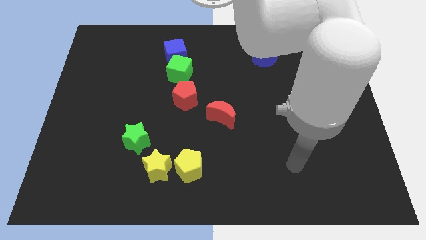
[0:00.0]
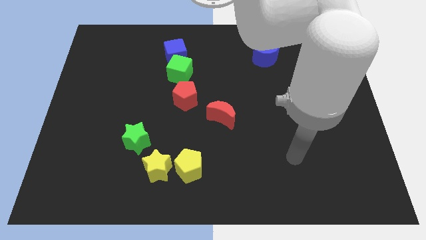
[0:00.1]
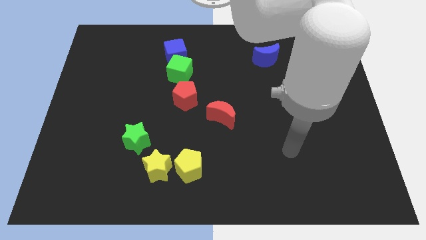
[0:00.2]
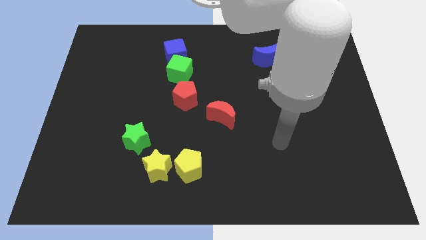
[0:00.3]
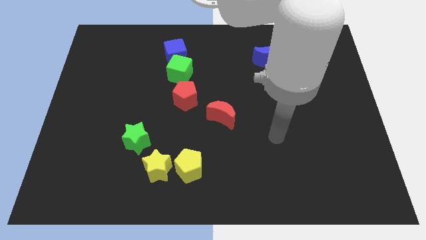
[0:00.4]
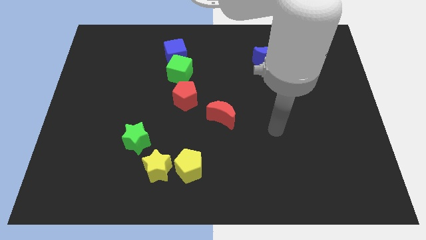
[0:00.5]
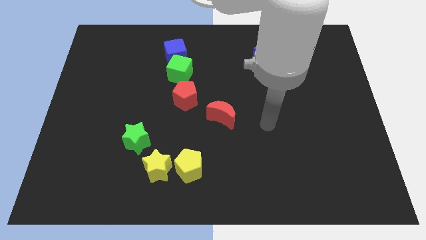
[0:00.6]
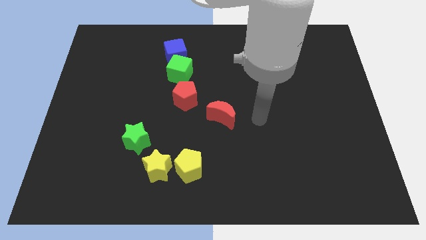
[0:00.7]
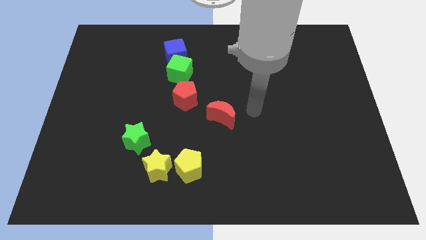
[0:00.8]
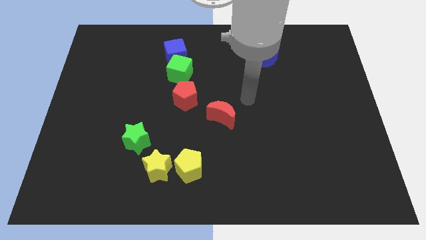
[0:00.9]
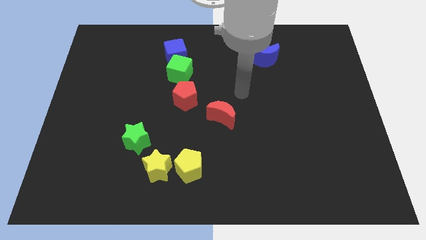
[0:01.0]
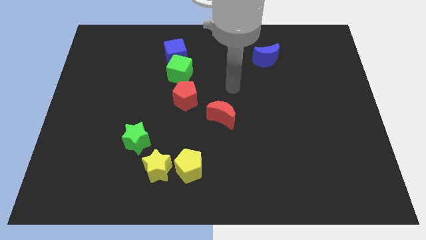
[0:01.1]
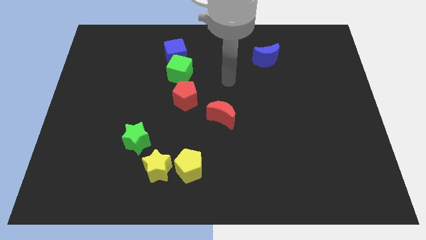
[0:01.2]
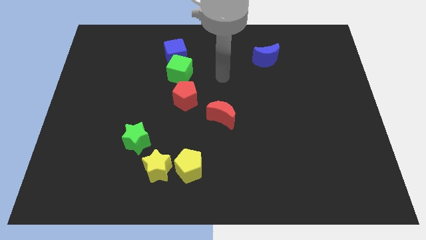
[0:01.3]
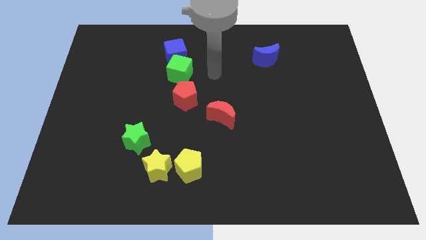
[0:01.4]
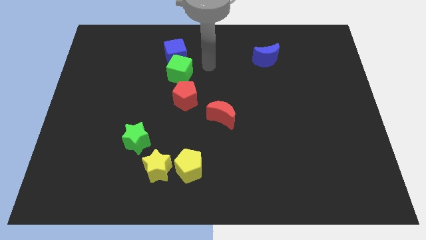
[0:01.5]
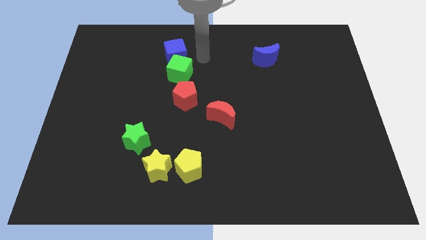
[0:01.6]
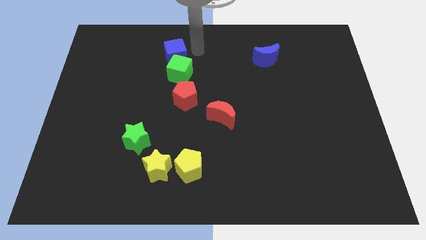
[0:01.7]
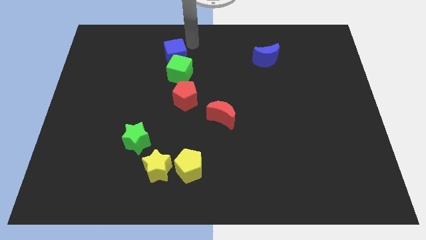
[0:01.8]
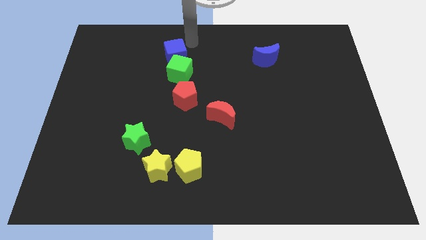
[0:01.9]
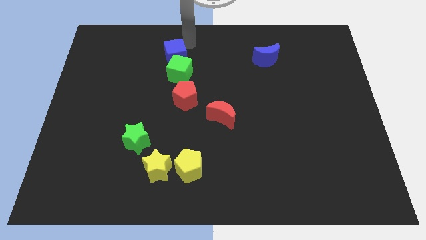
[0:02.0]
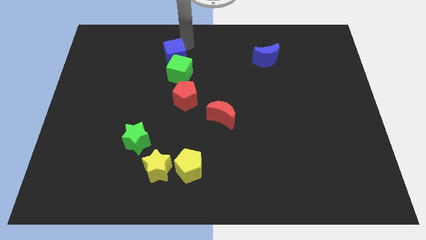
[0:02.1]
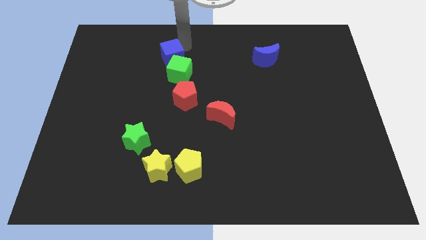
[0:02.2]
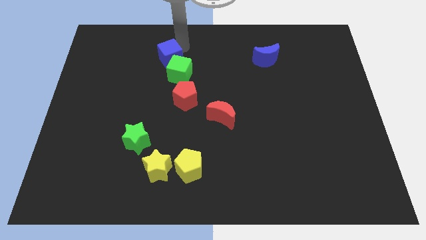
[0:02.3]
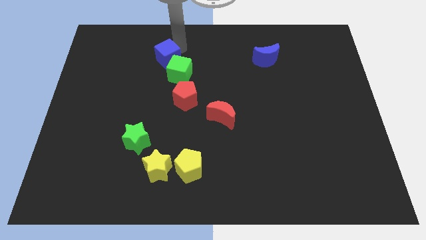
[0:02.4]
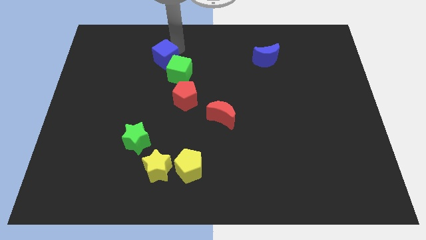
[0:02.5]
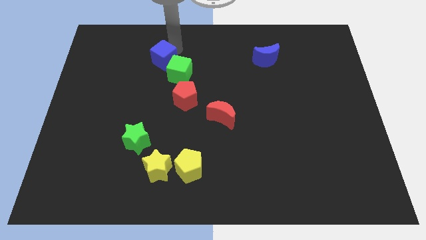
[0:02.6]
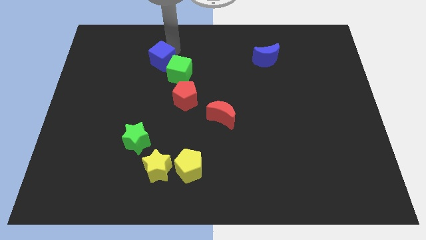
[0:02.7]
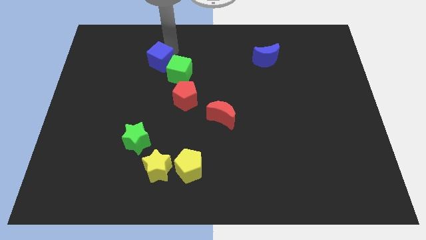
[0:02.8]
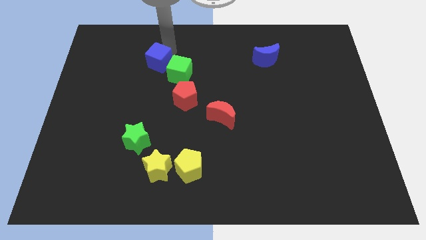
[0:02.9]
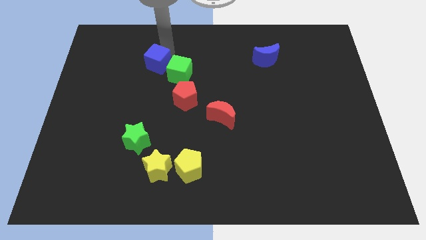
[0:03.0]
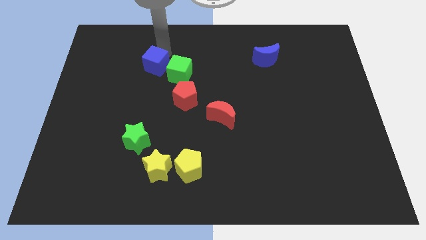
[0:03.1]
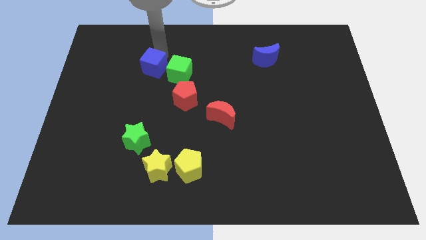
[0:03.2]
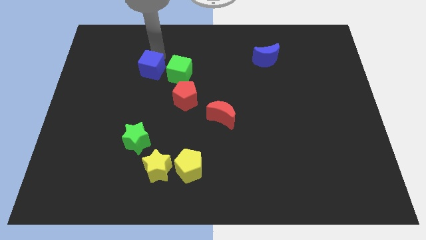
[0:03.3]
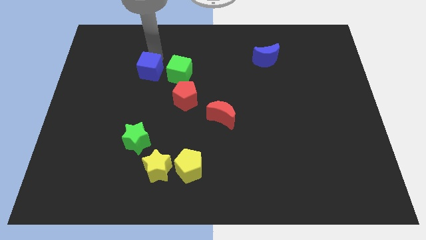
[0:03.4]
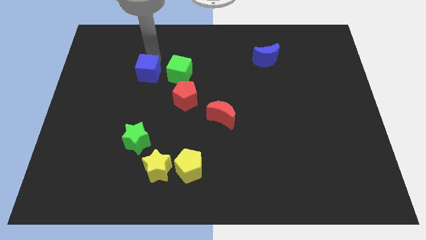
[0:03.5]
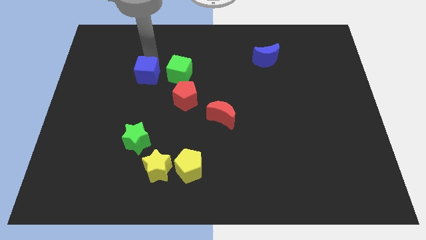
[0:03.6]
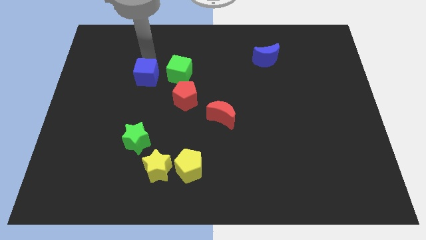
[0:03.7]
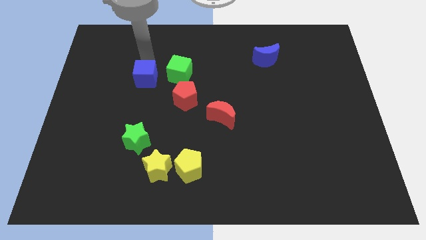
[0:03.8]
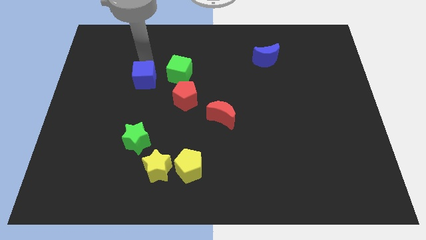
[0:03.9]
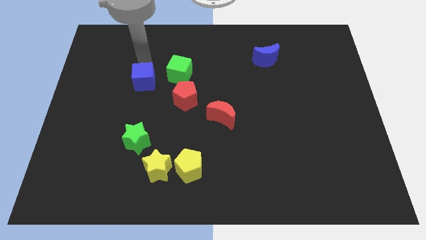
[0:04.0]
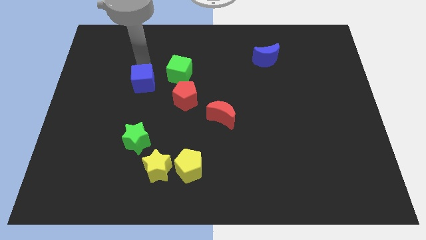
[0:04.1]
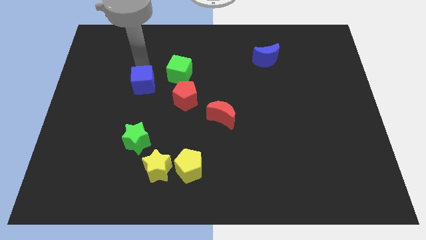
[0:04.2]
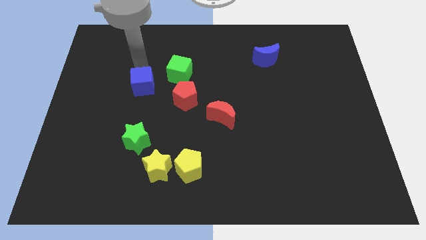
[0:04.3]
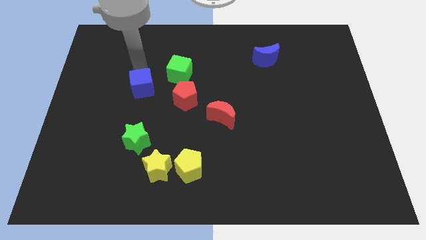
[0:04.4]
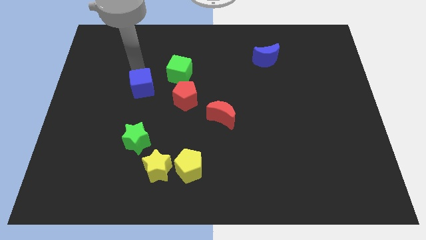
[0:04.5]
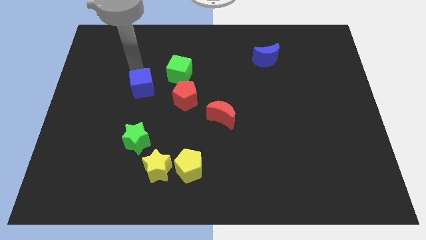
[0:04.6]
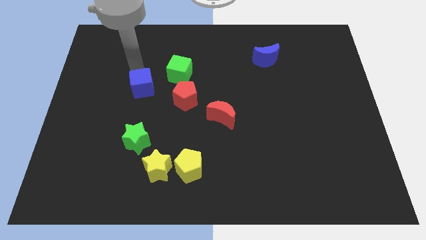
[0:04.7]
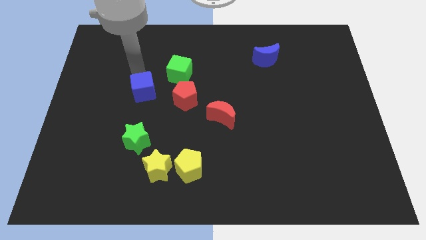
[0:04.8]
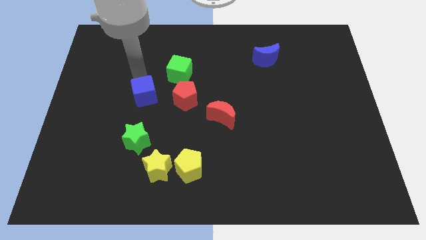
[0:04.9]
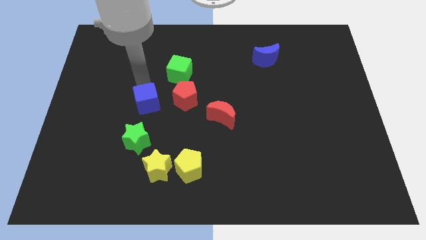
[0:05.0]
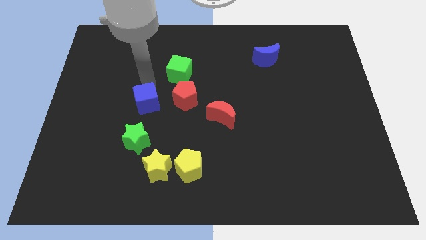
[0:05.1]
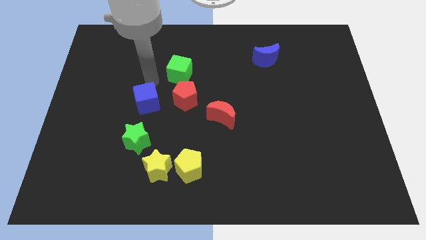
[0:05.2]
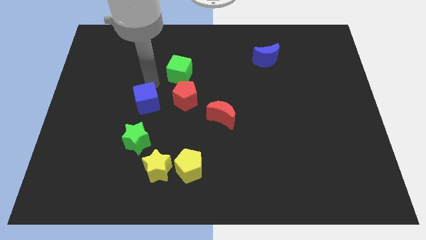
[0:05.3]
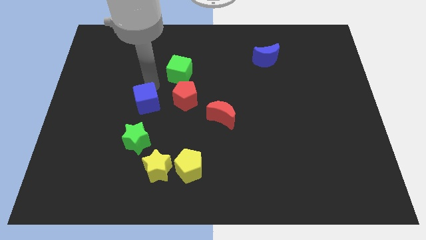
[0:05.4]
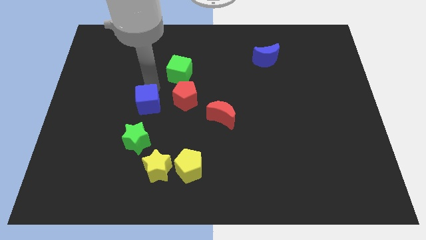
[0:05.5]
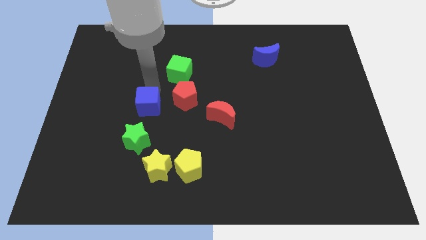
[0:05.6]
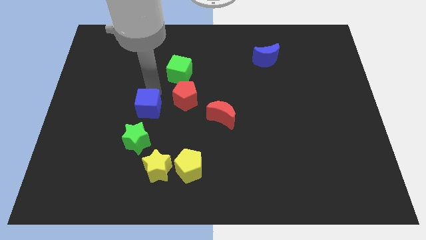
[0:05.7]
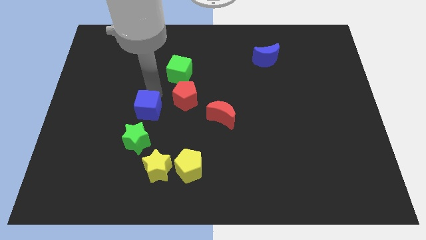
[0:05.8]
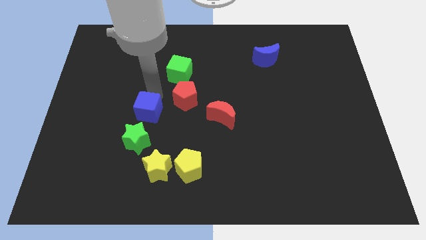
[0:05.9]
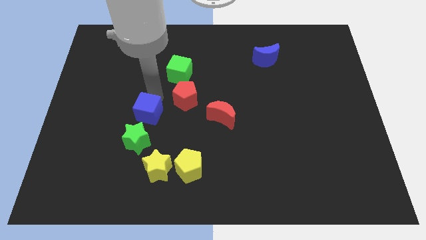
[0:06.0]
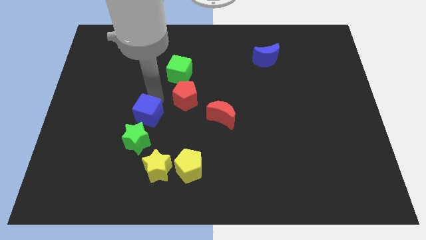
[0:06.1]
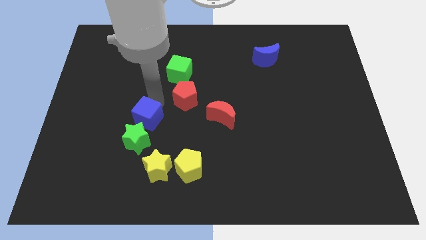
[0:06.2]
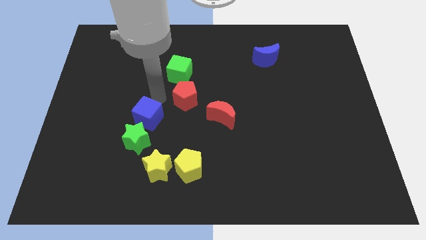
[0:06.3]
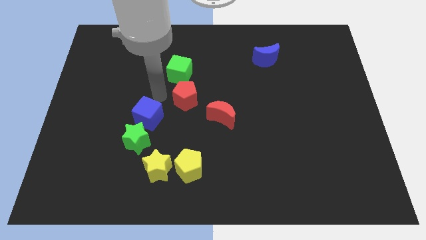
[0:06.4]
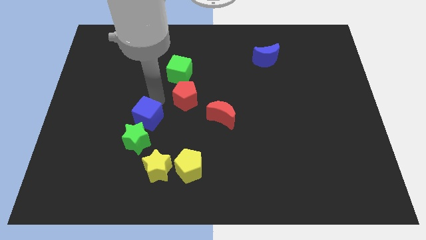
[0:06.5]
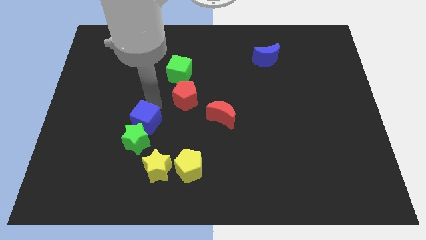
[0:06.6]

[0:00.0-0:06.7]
push the blue cube next to the green star

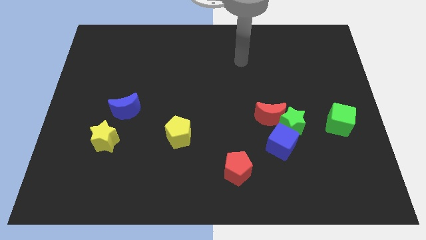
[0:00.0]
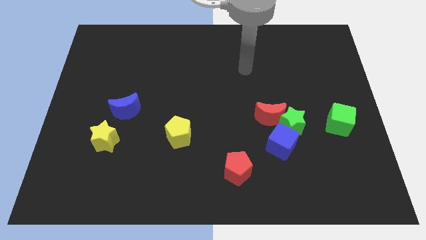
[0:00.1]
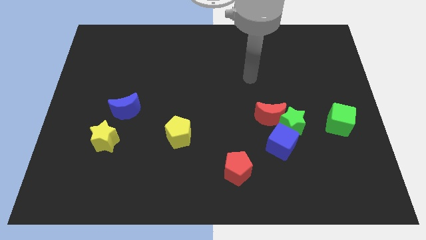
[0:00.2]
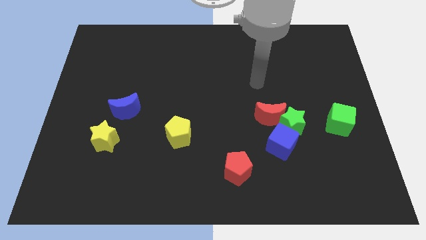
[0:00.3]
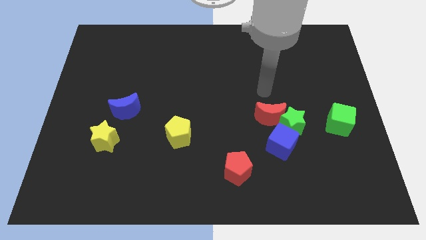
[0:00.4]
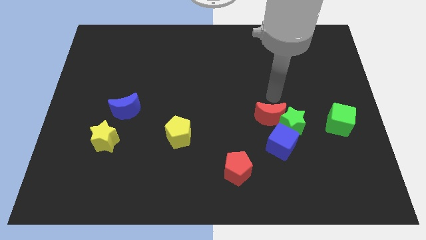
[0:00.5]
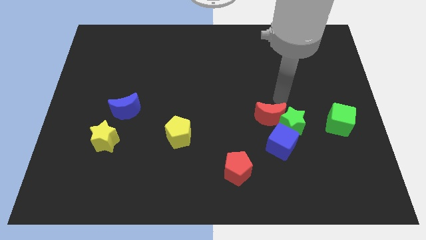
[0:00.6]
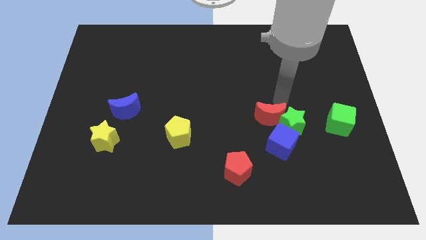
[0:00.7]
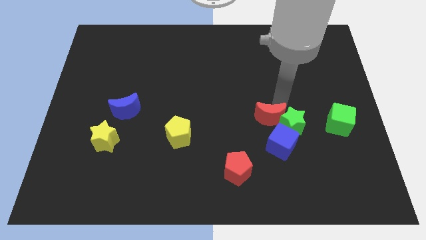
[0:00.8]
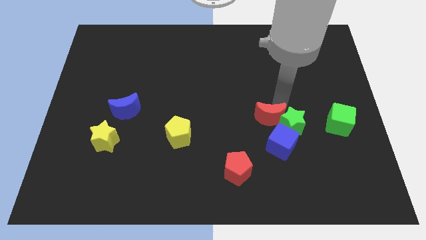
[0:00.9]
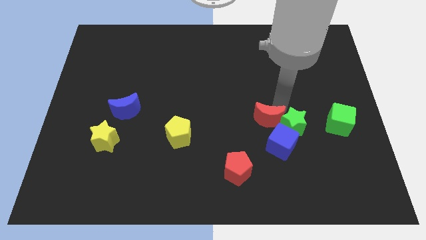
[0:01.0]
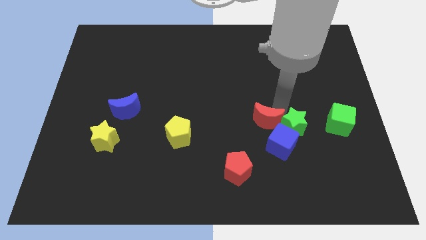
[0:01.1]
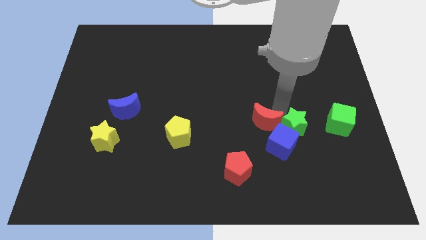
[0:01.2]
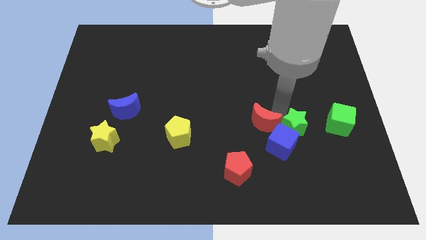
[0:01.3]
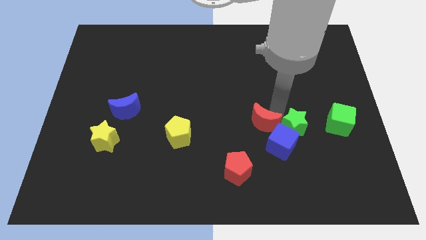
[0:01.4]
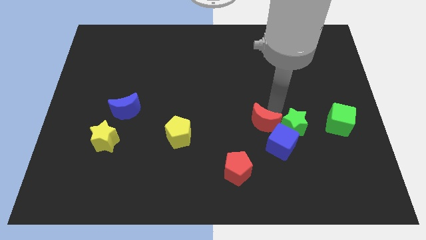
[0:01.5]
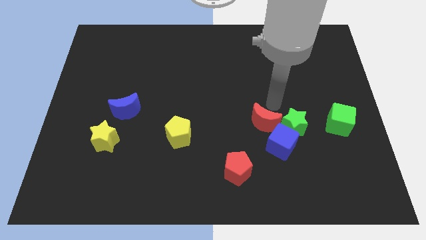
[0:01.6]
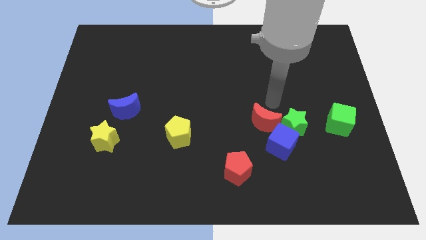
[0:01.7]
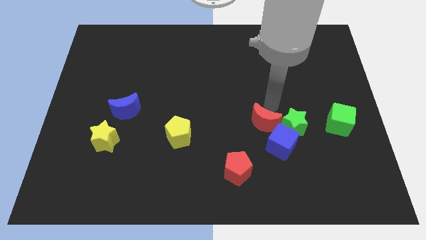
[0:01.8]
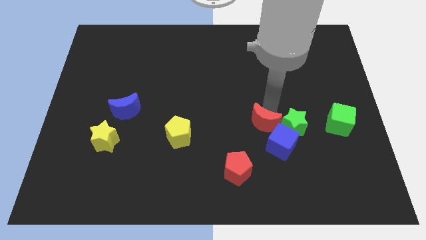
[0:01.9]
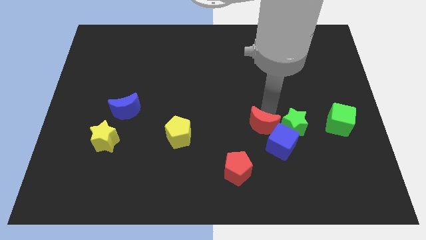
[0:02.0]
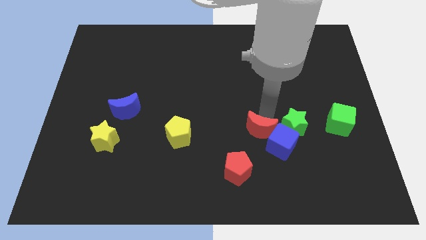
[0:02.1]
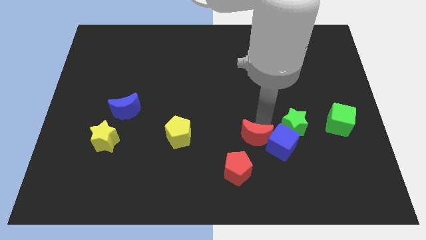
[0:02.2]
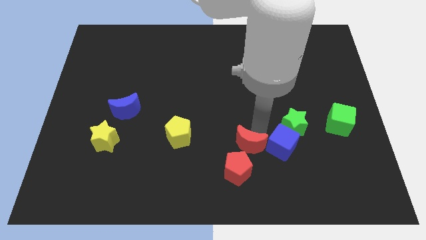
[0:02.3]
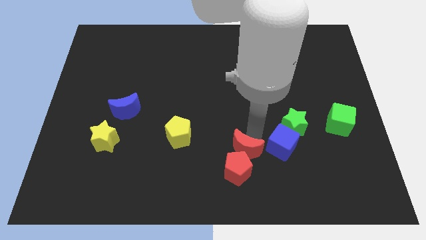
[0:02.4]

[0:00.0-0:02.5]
slide the red moon to the red pentagon
